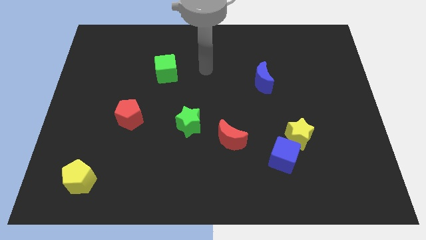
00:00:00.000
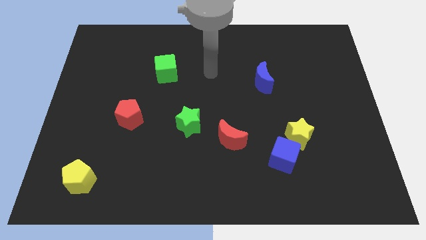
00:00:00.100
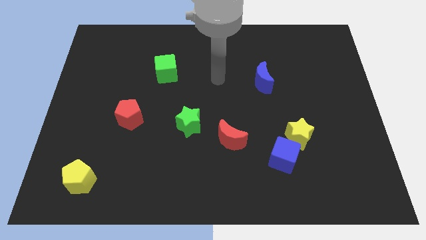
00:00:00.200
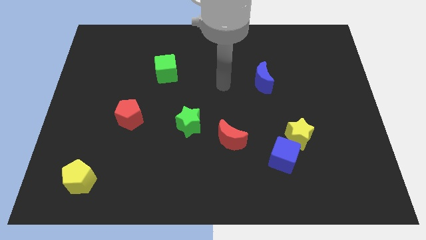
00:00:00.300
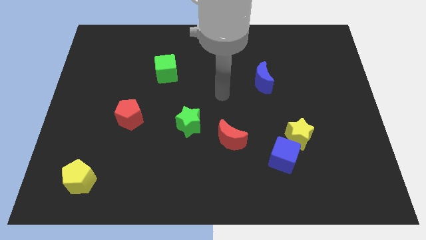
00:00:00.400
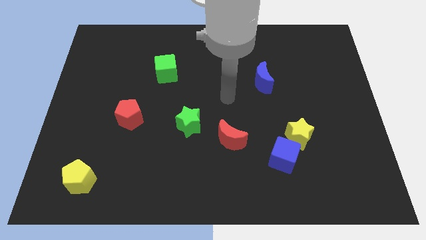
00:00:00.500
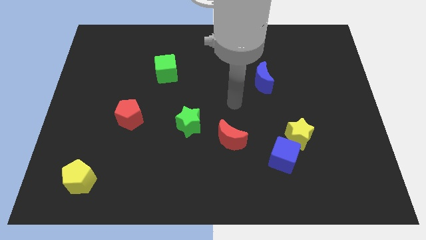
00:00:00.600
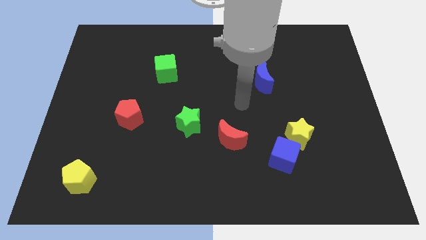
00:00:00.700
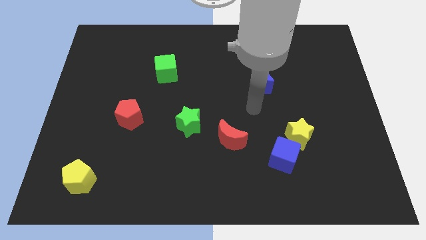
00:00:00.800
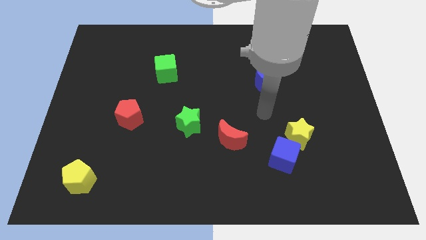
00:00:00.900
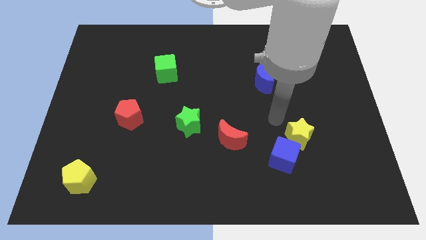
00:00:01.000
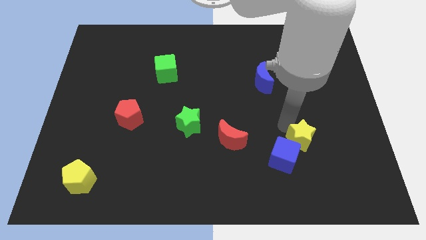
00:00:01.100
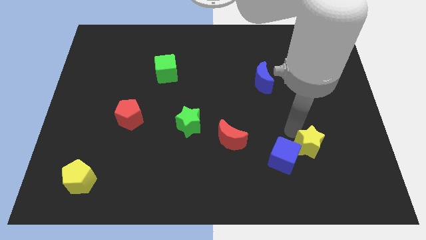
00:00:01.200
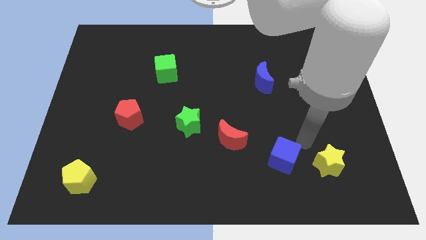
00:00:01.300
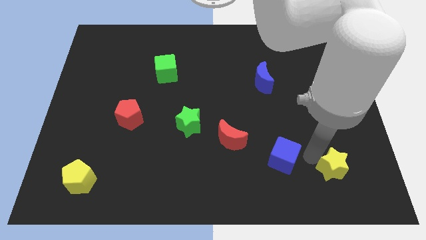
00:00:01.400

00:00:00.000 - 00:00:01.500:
pull the blue cube apart from the yellow star

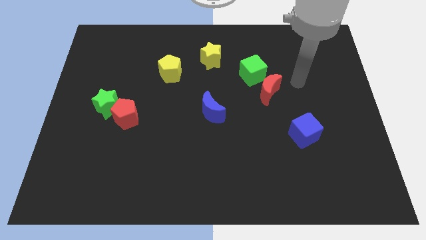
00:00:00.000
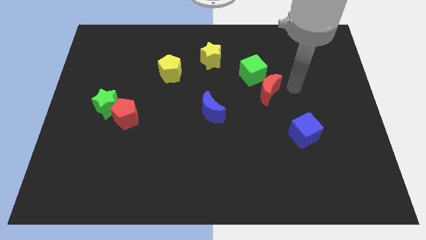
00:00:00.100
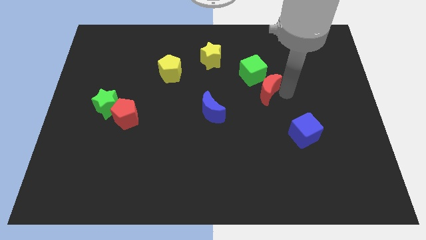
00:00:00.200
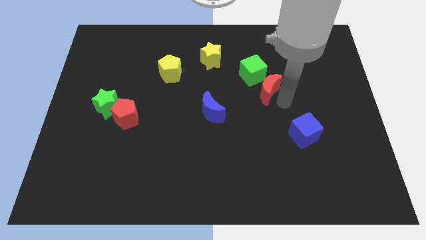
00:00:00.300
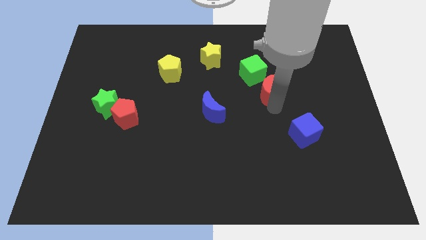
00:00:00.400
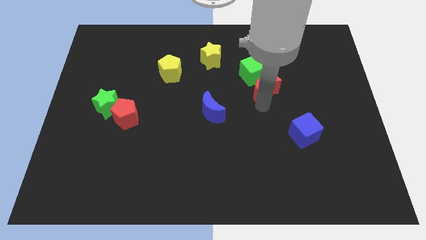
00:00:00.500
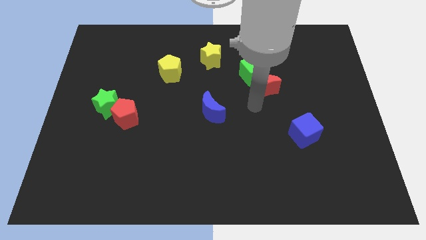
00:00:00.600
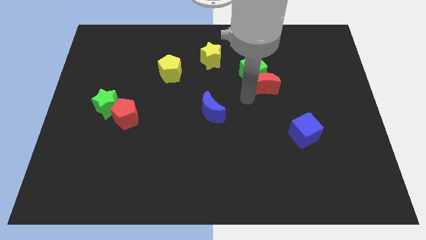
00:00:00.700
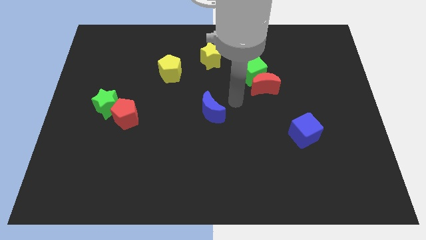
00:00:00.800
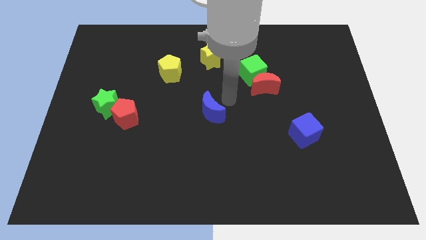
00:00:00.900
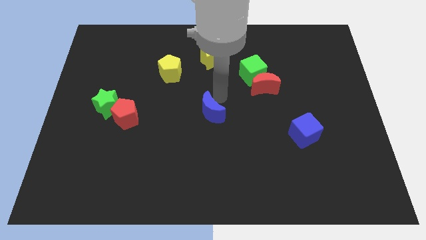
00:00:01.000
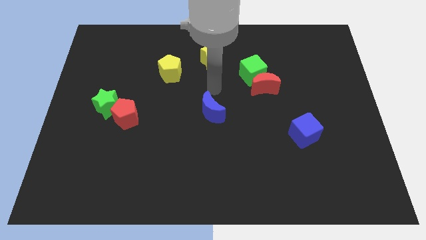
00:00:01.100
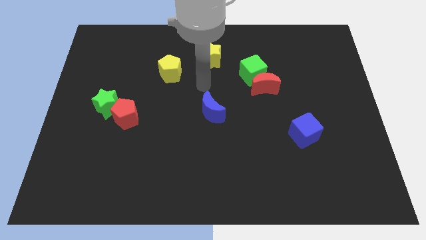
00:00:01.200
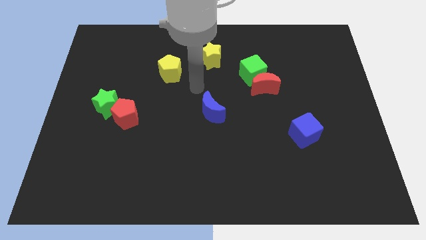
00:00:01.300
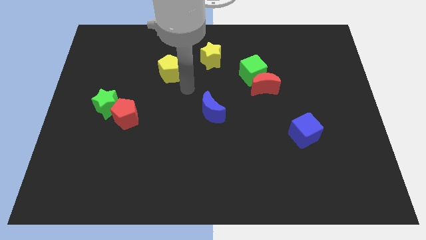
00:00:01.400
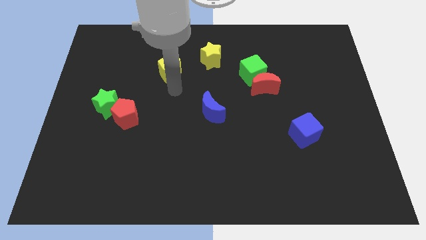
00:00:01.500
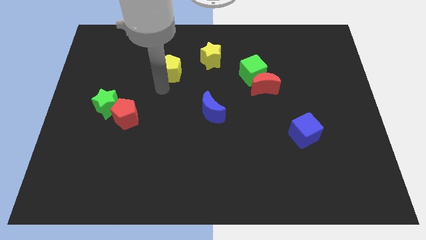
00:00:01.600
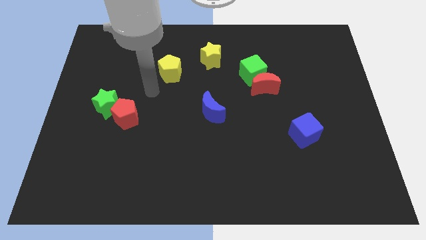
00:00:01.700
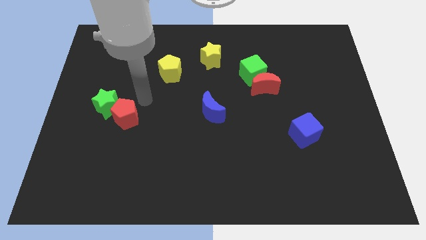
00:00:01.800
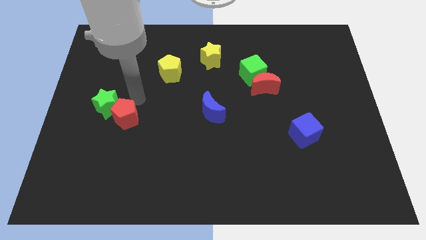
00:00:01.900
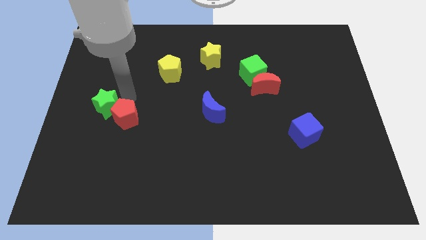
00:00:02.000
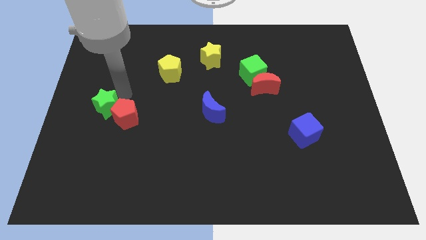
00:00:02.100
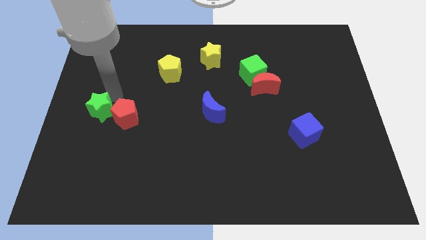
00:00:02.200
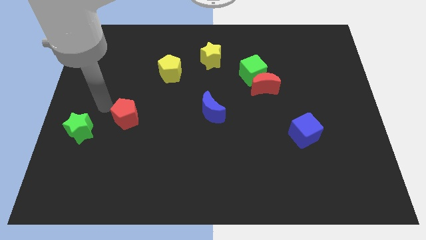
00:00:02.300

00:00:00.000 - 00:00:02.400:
pull the red pentagon apart from the green star

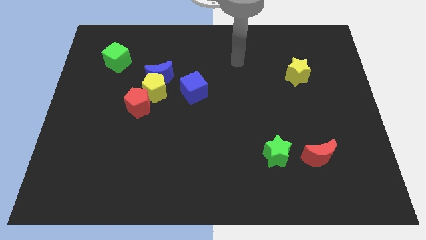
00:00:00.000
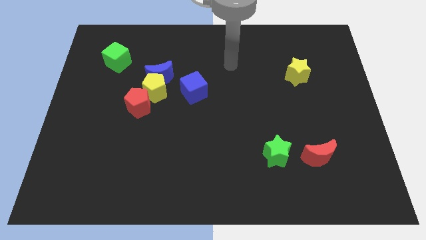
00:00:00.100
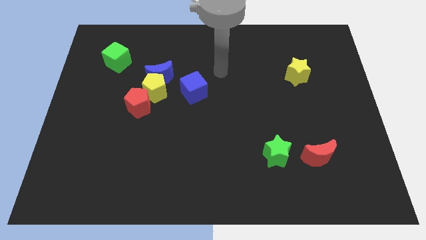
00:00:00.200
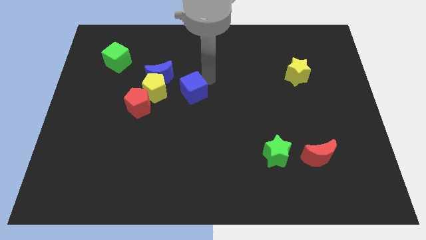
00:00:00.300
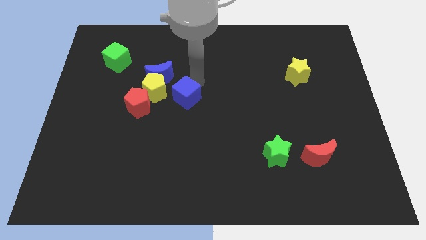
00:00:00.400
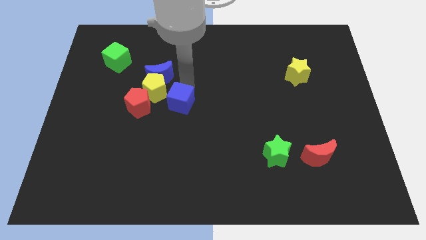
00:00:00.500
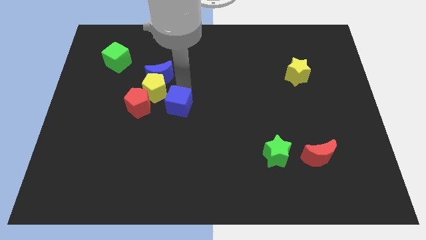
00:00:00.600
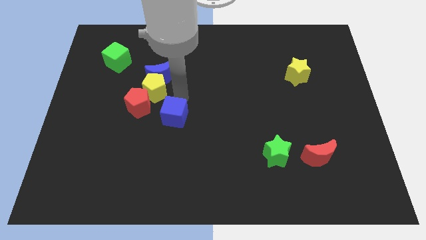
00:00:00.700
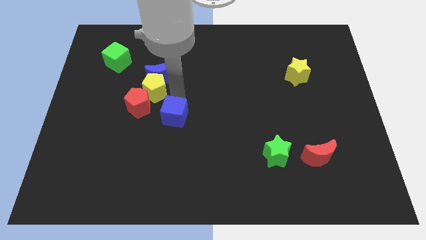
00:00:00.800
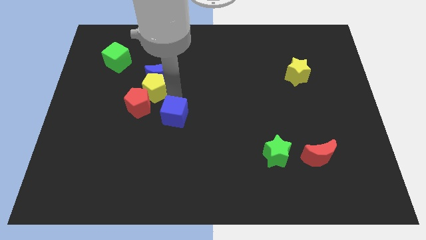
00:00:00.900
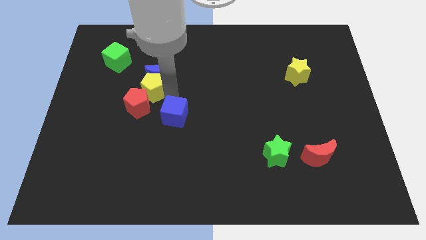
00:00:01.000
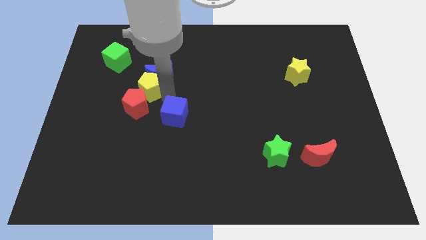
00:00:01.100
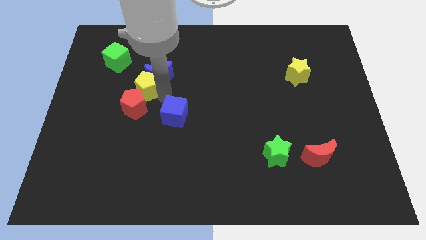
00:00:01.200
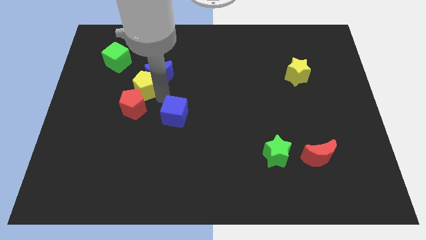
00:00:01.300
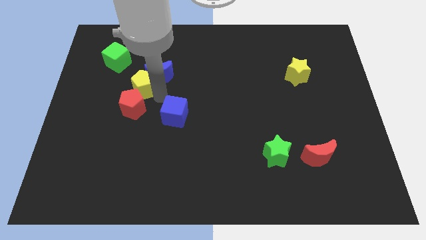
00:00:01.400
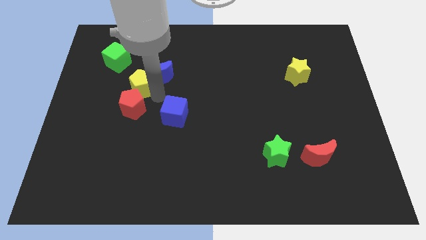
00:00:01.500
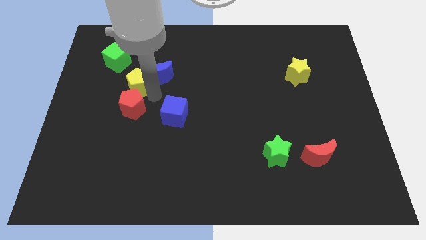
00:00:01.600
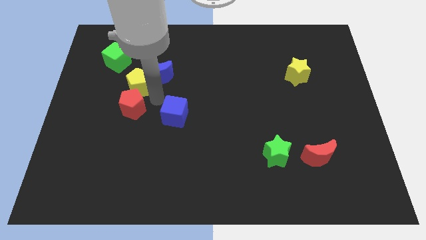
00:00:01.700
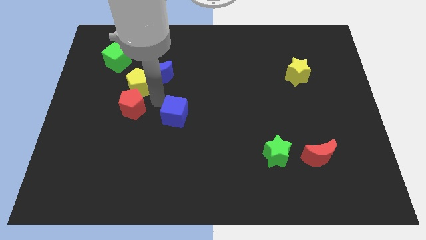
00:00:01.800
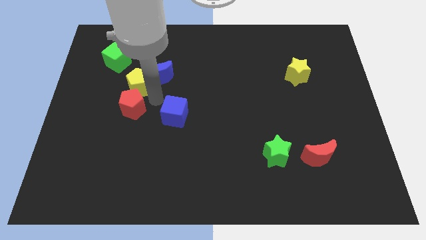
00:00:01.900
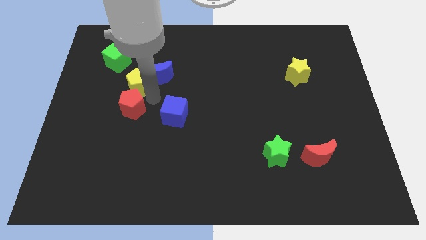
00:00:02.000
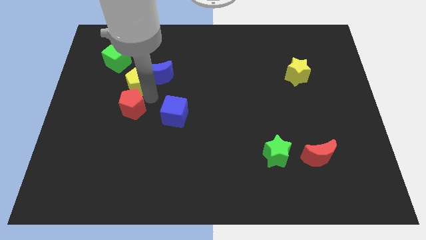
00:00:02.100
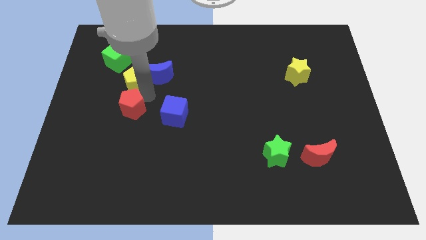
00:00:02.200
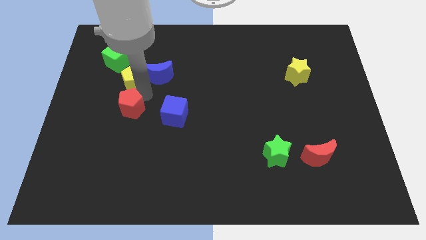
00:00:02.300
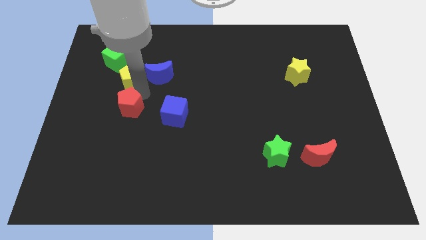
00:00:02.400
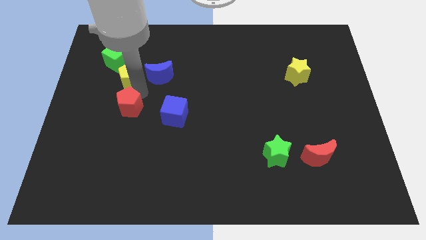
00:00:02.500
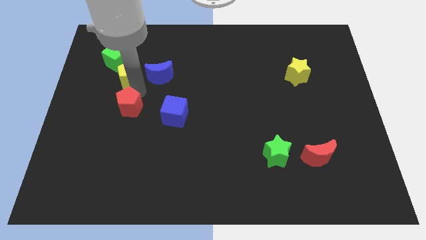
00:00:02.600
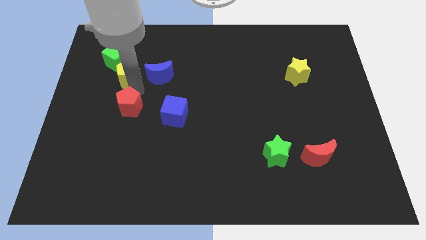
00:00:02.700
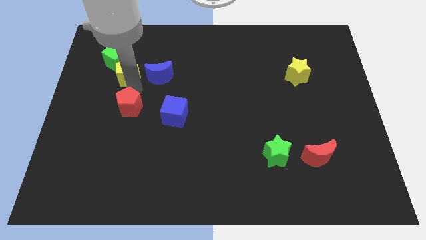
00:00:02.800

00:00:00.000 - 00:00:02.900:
separate the yellow pentagon from the blue moon, red pentagon, and blue cube

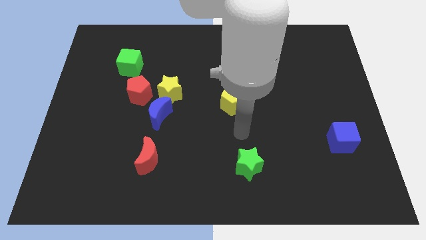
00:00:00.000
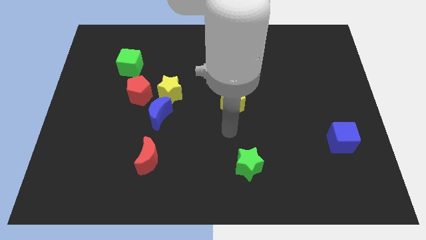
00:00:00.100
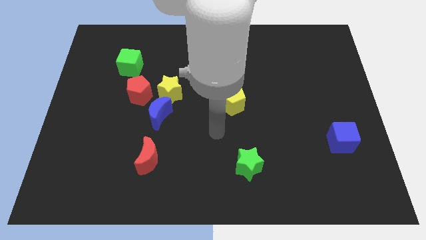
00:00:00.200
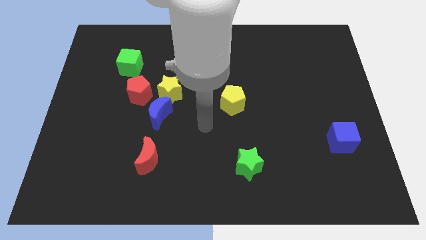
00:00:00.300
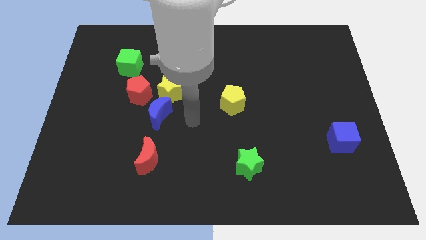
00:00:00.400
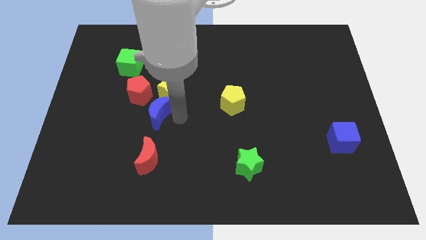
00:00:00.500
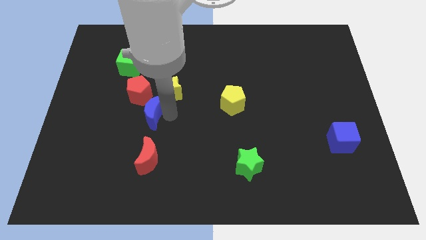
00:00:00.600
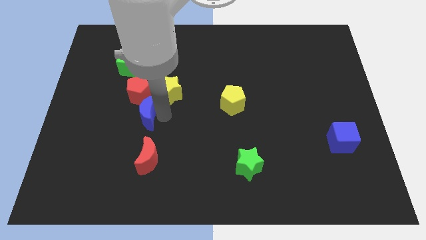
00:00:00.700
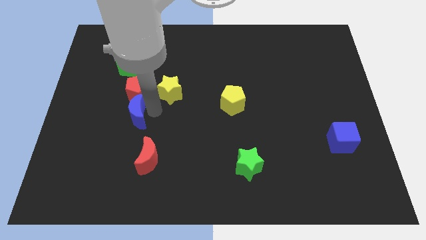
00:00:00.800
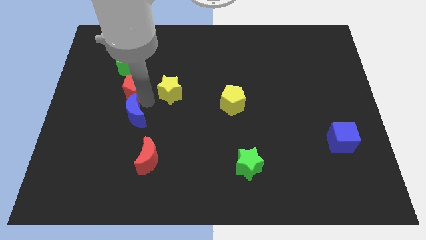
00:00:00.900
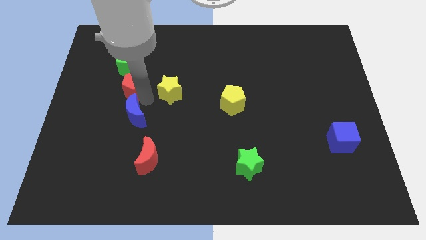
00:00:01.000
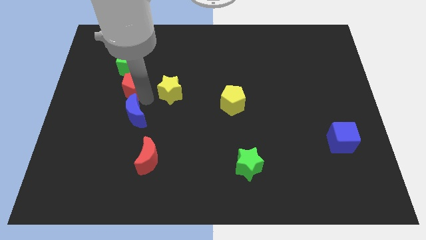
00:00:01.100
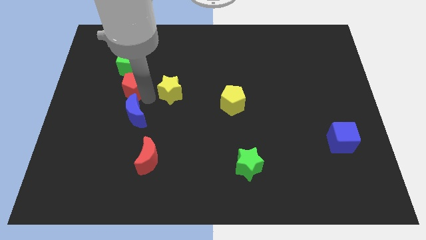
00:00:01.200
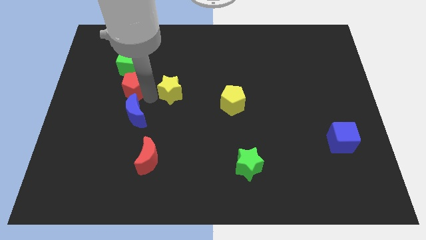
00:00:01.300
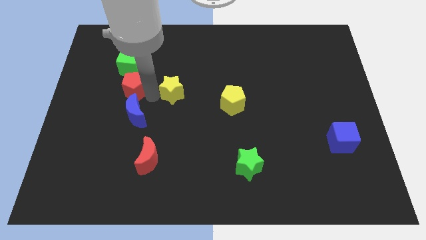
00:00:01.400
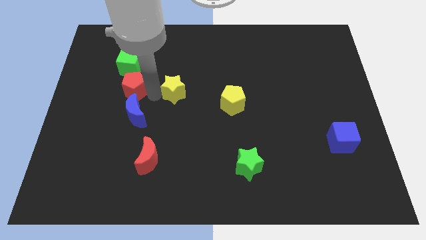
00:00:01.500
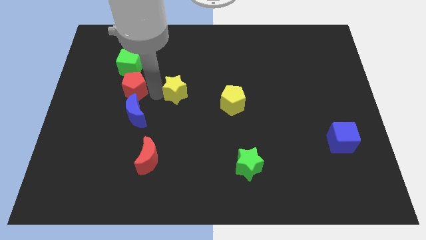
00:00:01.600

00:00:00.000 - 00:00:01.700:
move the yellow star away from the blue moon and red pentagon

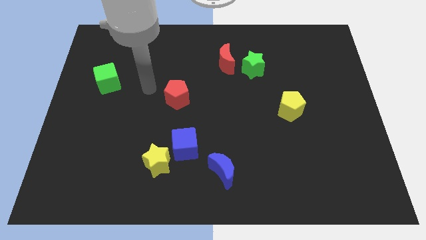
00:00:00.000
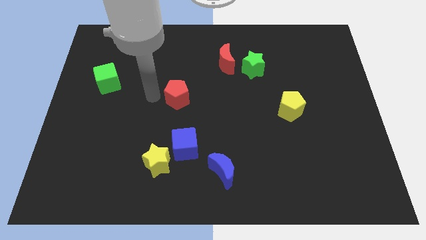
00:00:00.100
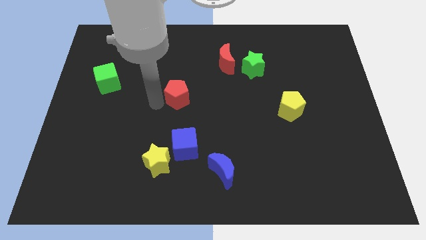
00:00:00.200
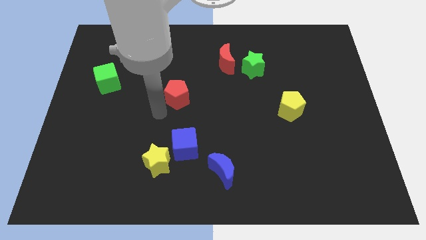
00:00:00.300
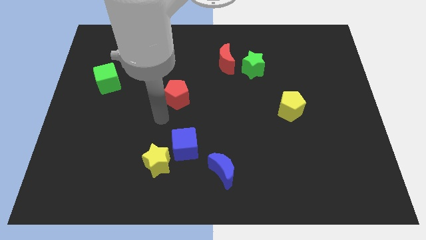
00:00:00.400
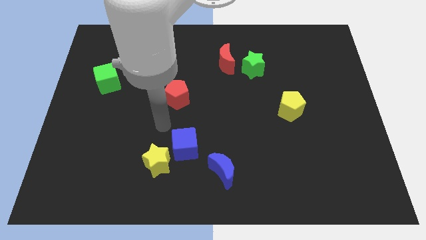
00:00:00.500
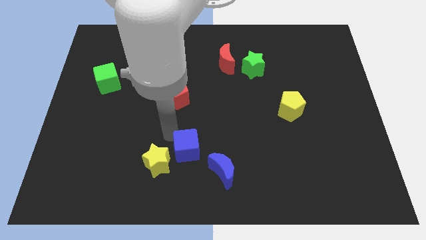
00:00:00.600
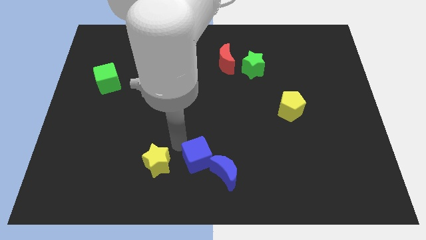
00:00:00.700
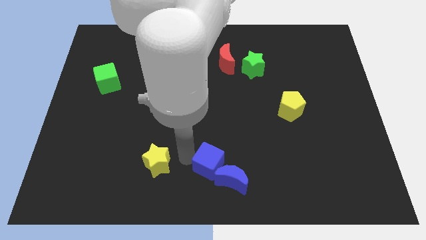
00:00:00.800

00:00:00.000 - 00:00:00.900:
pull the yellow star apart from the blue cube
